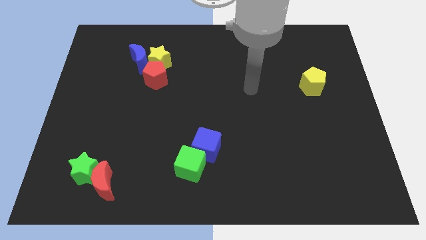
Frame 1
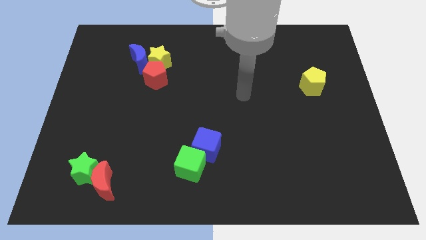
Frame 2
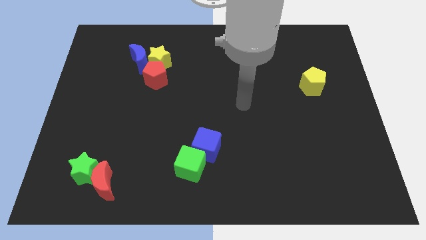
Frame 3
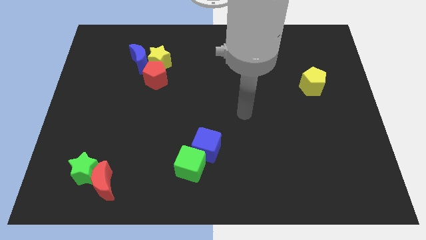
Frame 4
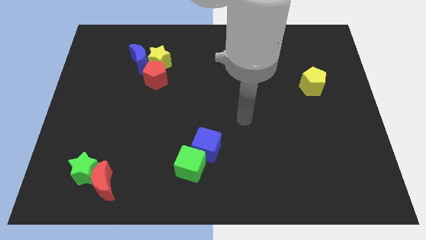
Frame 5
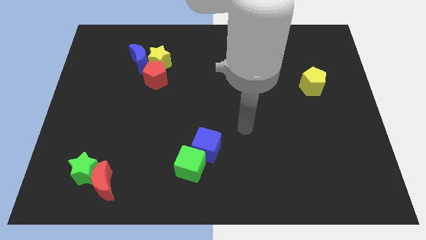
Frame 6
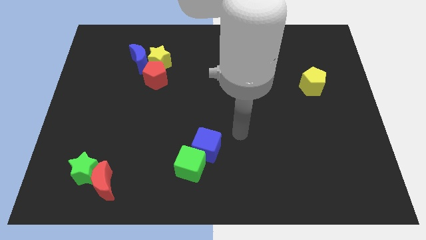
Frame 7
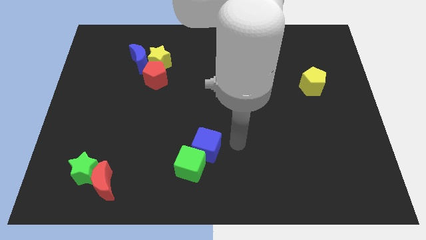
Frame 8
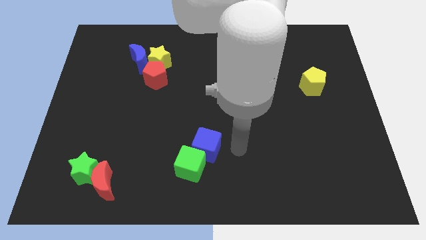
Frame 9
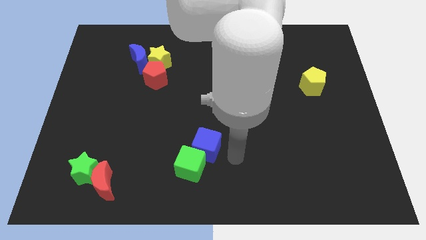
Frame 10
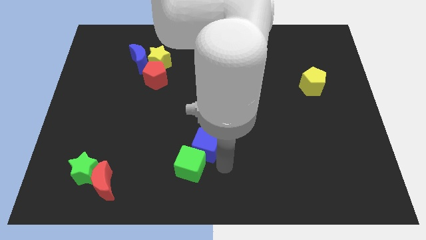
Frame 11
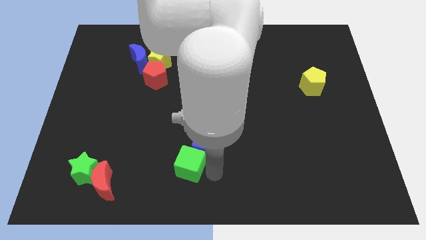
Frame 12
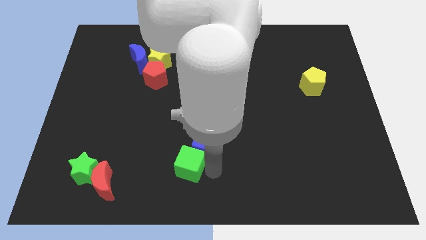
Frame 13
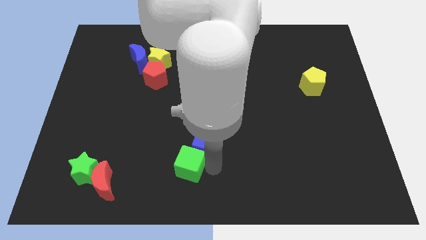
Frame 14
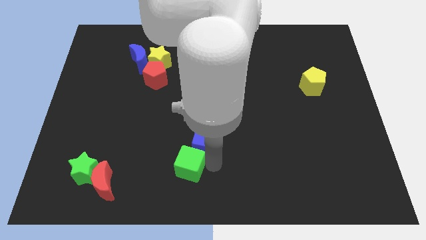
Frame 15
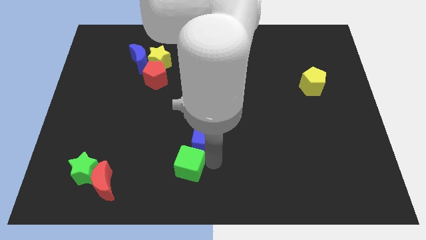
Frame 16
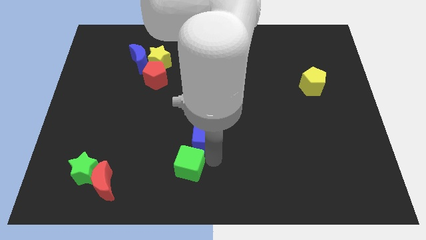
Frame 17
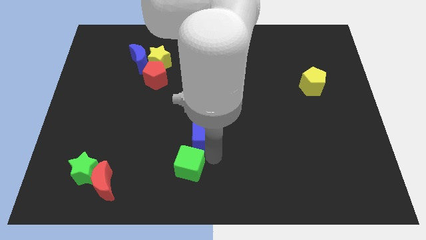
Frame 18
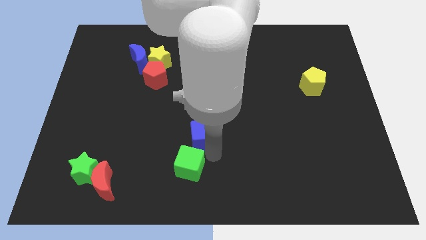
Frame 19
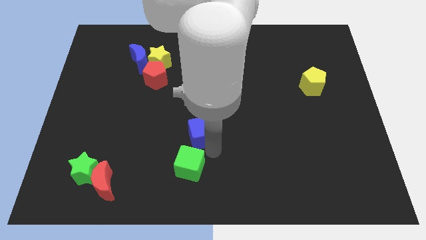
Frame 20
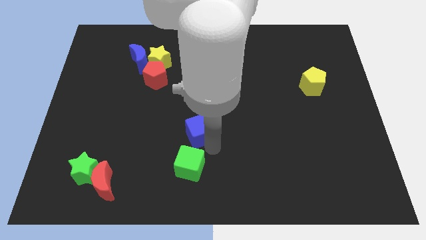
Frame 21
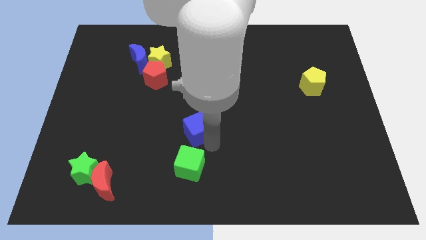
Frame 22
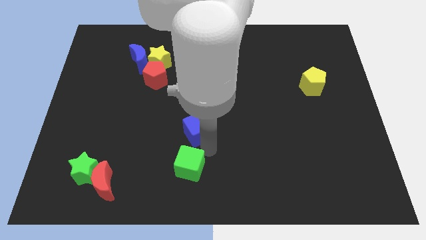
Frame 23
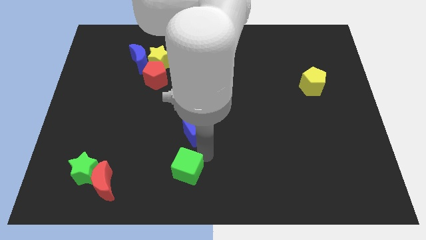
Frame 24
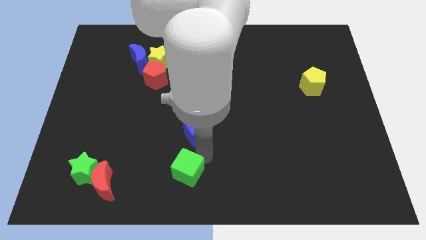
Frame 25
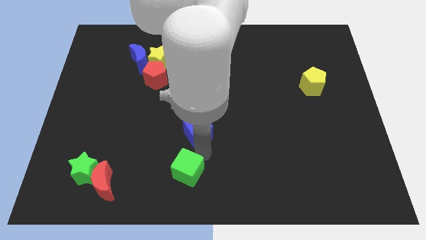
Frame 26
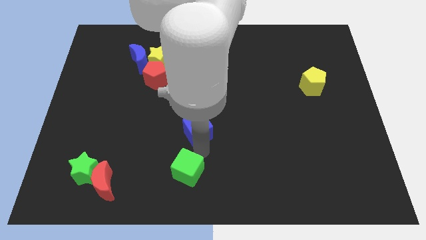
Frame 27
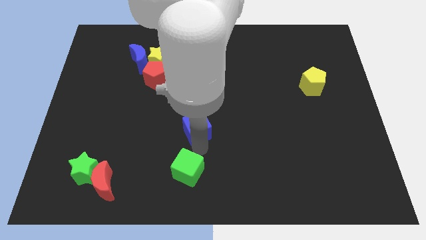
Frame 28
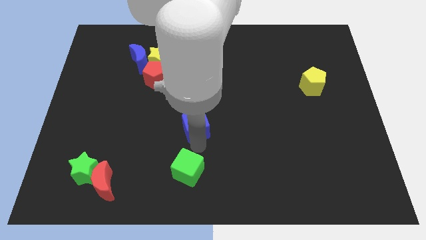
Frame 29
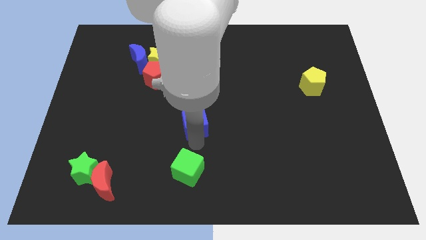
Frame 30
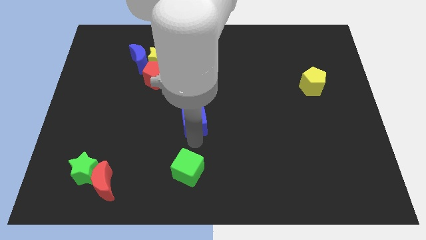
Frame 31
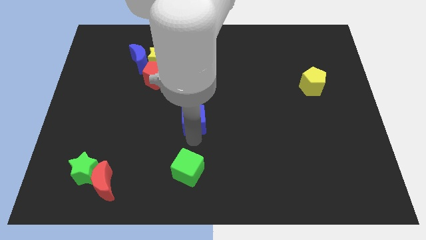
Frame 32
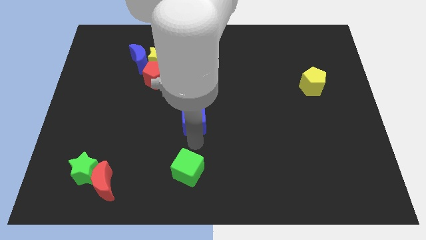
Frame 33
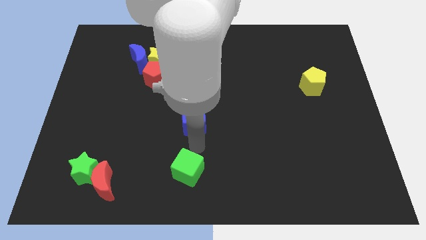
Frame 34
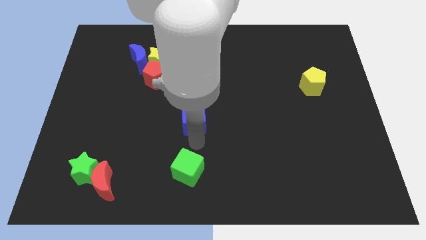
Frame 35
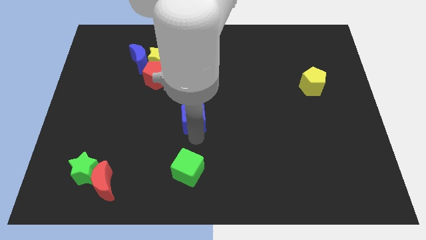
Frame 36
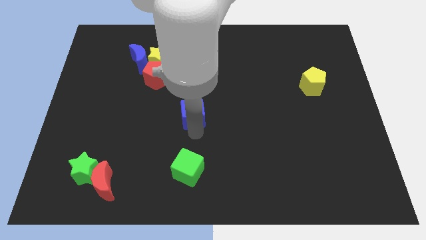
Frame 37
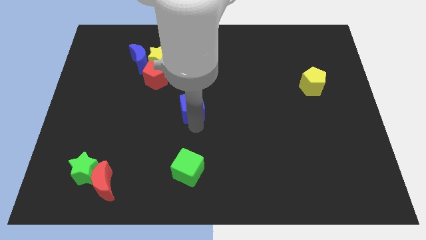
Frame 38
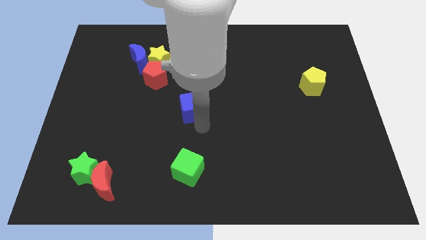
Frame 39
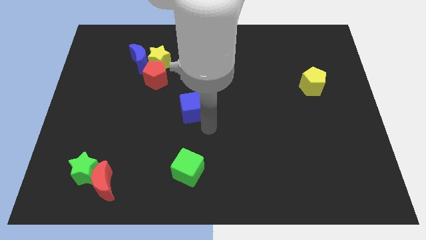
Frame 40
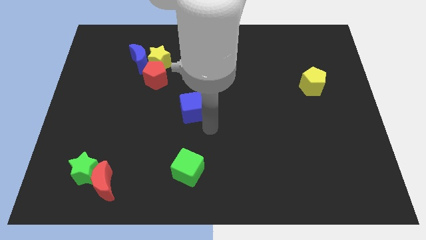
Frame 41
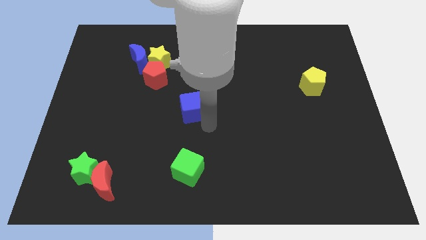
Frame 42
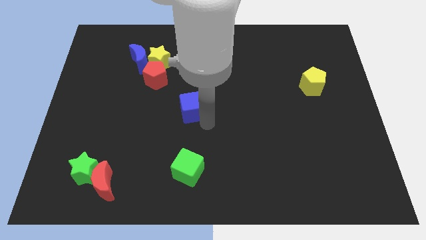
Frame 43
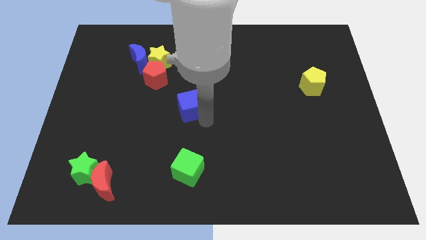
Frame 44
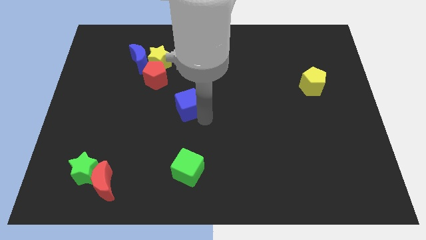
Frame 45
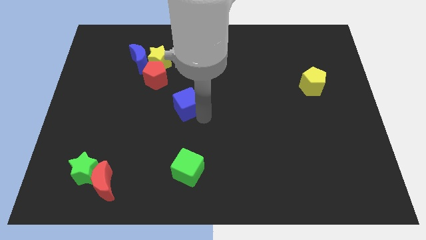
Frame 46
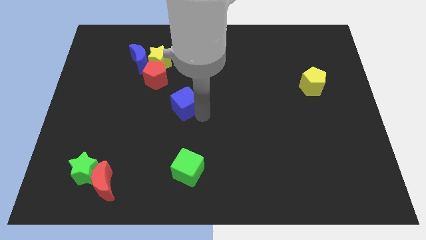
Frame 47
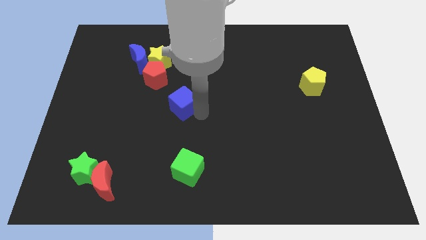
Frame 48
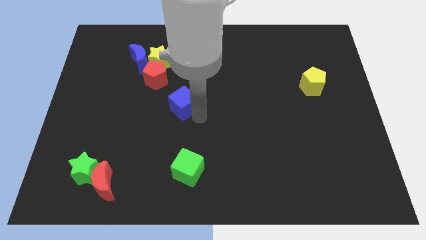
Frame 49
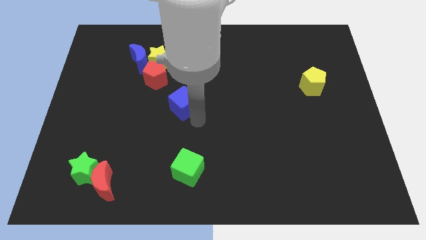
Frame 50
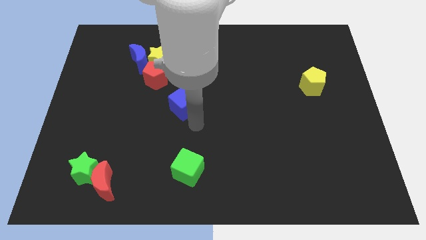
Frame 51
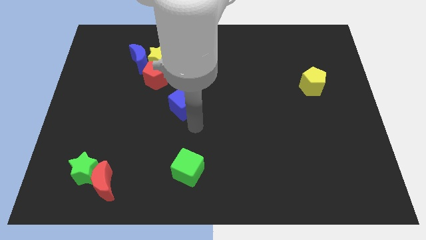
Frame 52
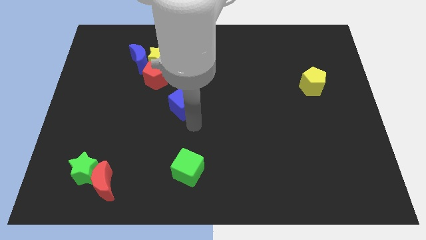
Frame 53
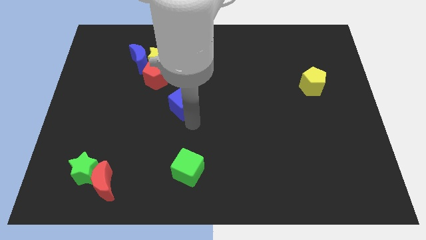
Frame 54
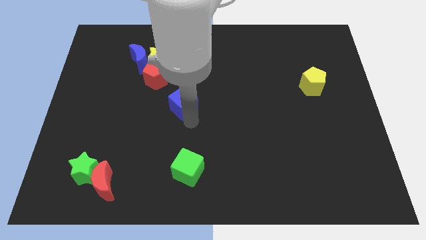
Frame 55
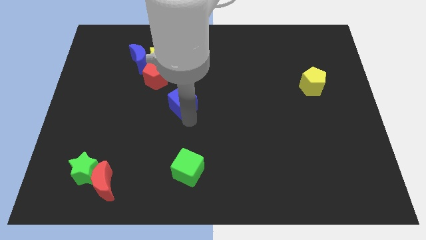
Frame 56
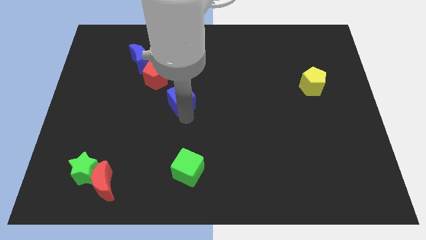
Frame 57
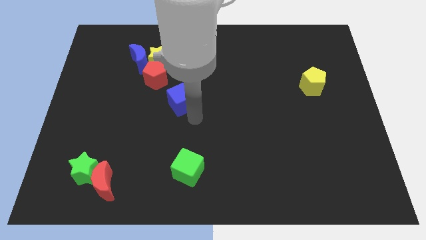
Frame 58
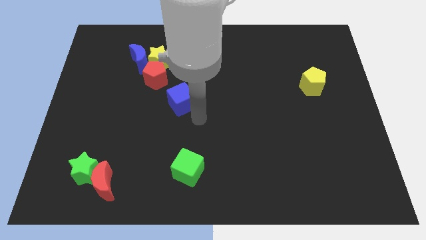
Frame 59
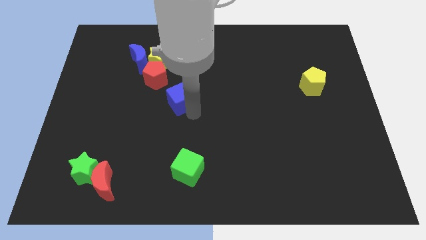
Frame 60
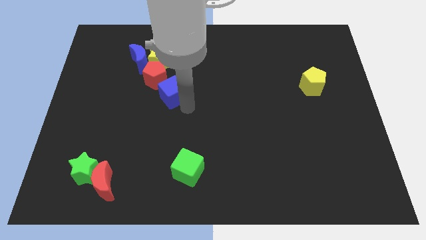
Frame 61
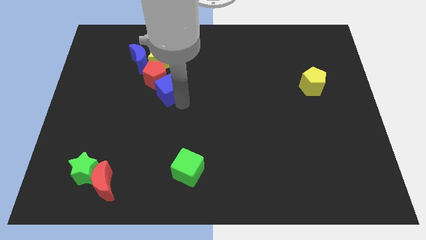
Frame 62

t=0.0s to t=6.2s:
push the blue cube next to the red pentagon
